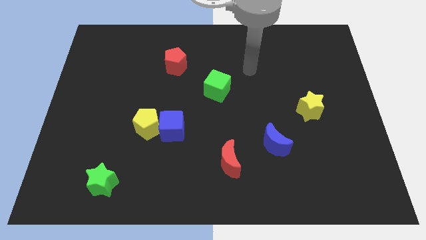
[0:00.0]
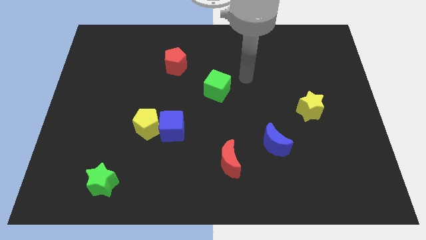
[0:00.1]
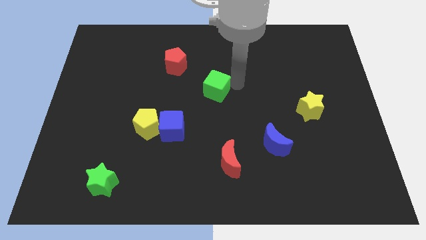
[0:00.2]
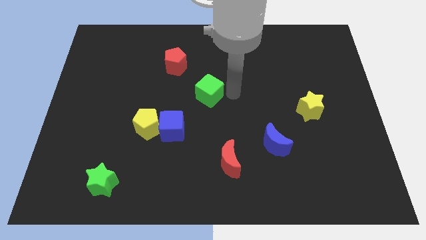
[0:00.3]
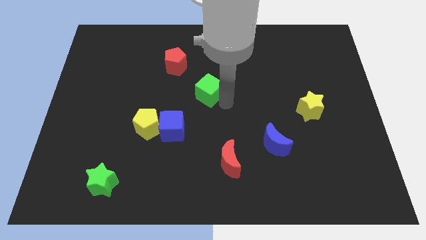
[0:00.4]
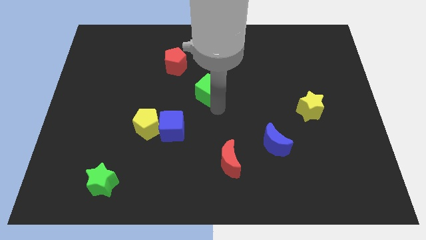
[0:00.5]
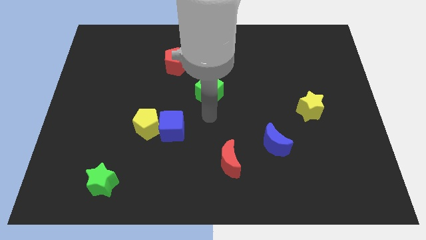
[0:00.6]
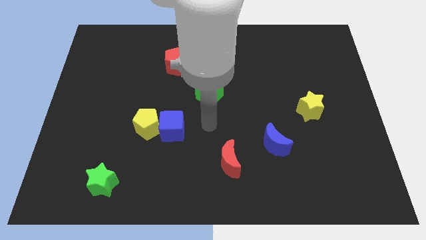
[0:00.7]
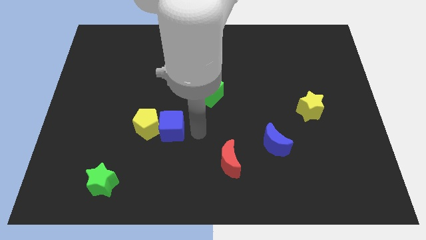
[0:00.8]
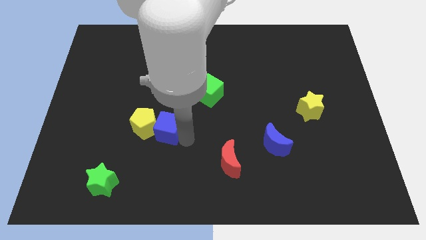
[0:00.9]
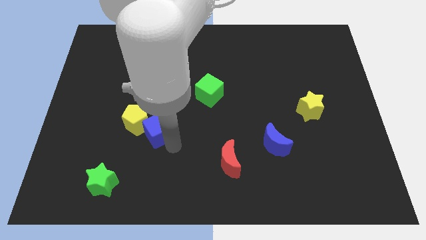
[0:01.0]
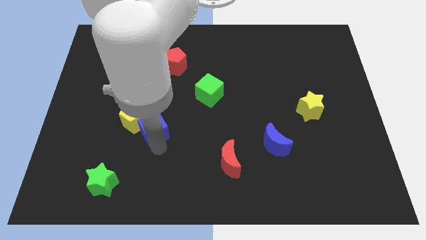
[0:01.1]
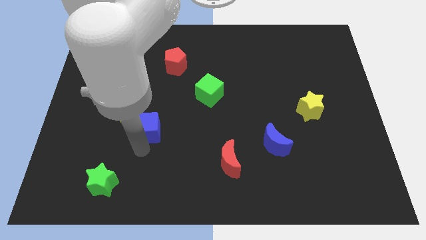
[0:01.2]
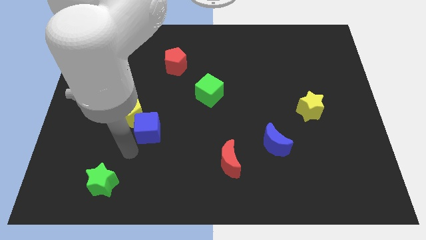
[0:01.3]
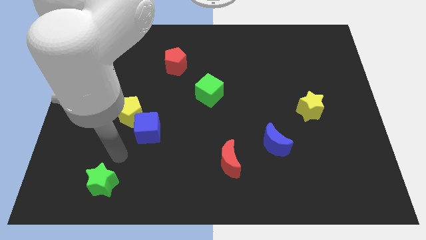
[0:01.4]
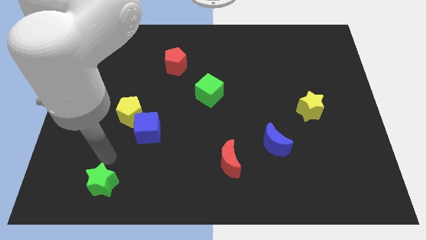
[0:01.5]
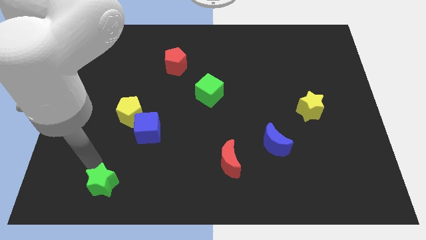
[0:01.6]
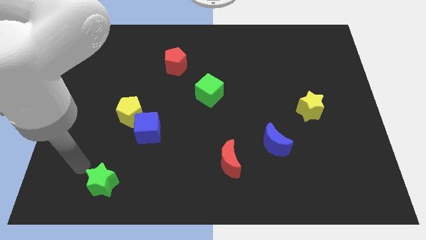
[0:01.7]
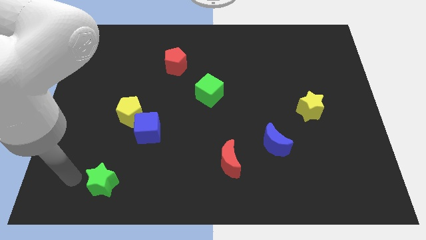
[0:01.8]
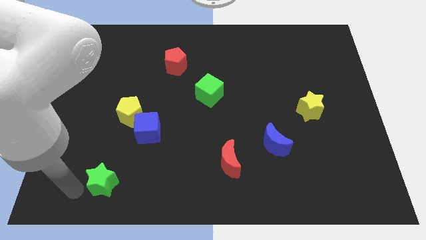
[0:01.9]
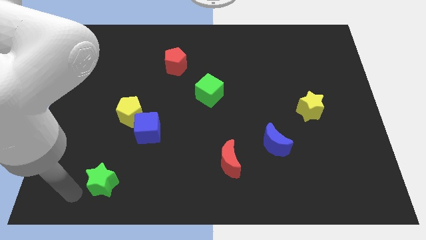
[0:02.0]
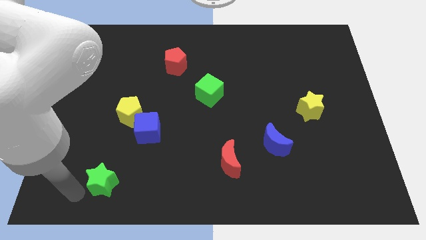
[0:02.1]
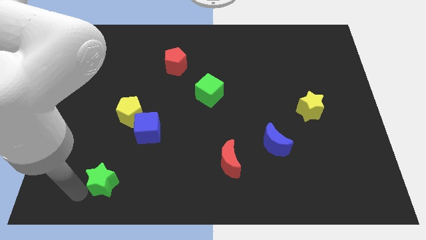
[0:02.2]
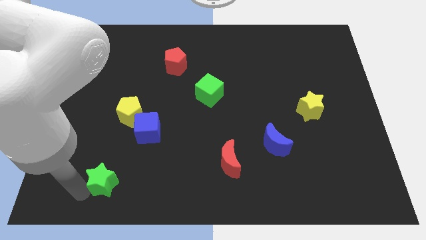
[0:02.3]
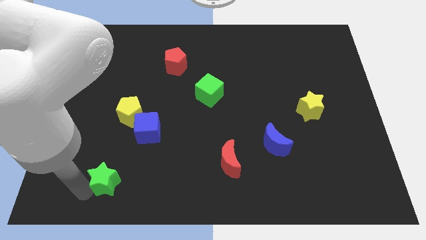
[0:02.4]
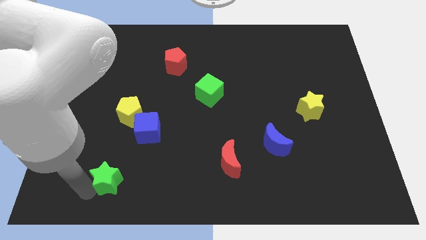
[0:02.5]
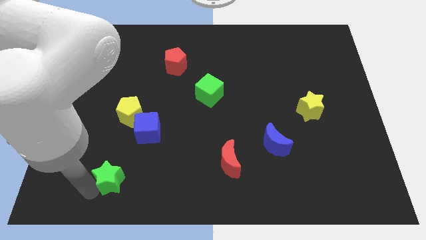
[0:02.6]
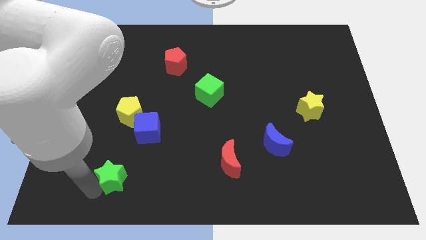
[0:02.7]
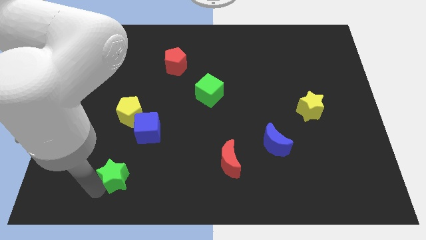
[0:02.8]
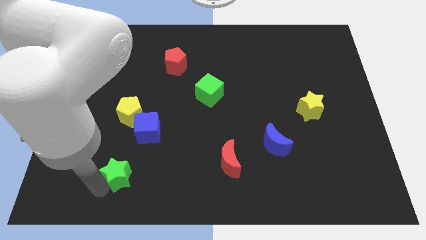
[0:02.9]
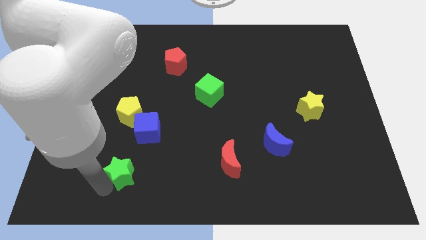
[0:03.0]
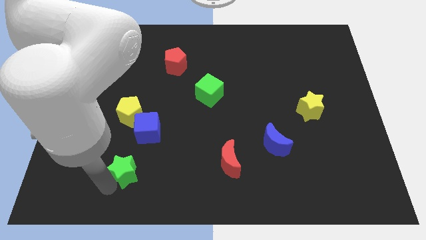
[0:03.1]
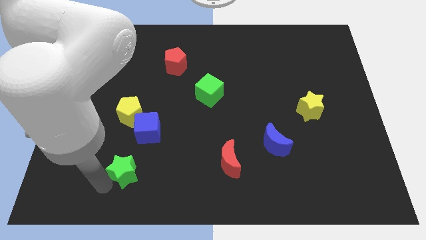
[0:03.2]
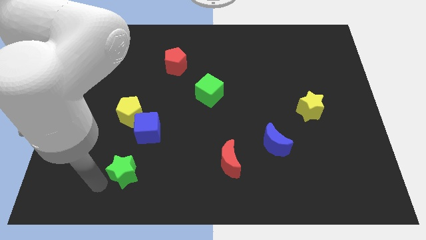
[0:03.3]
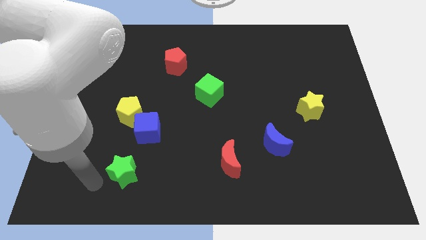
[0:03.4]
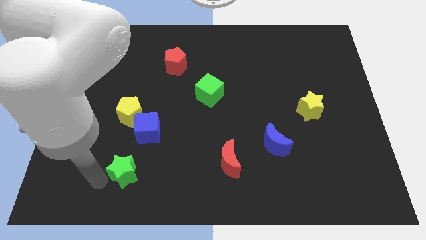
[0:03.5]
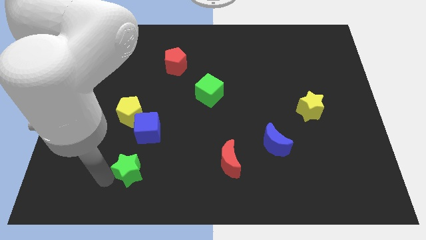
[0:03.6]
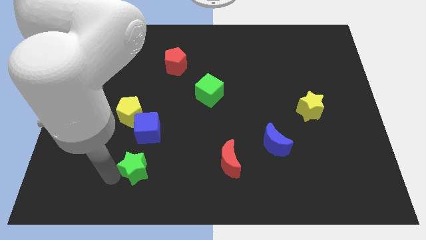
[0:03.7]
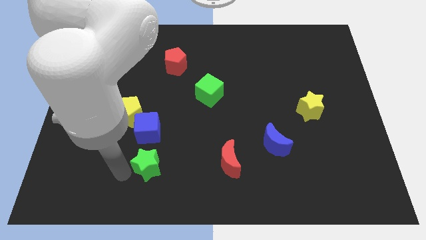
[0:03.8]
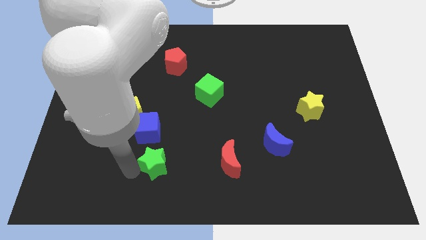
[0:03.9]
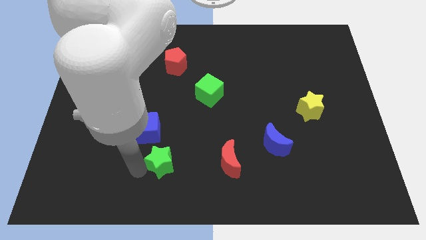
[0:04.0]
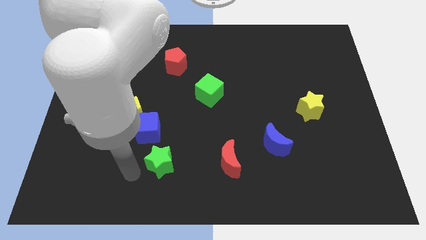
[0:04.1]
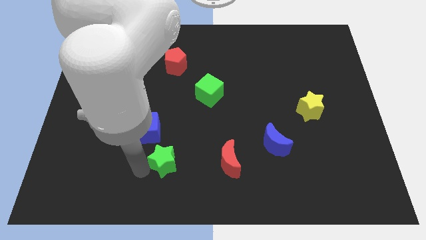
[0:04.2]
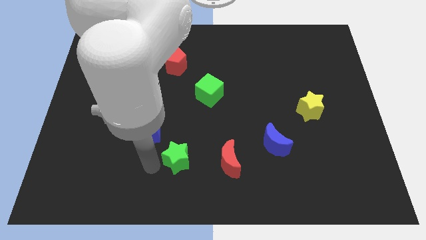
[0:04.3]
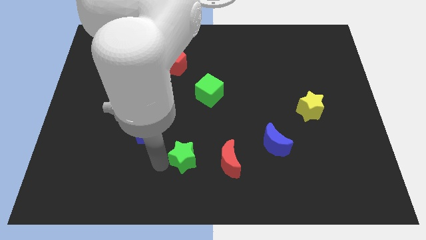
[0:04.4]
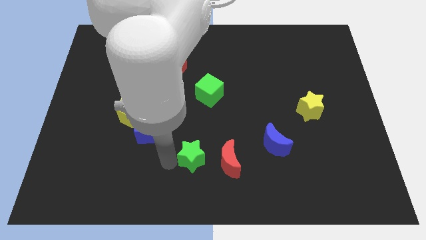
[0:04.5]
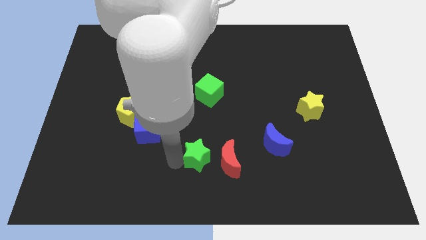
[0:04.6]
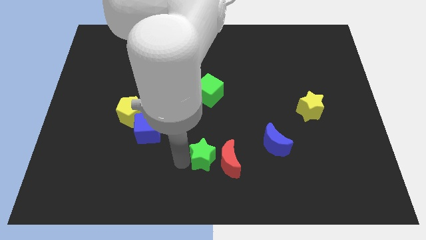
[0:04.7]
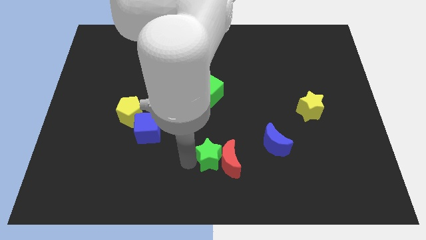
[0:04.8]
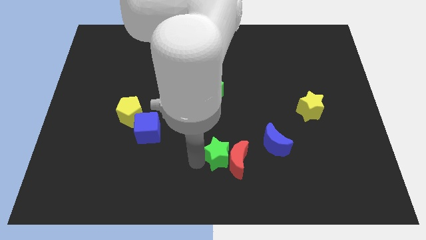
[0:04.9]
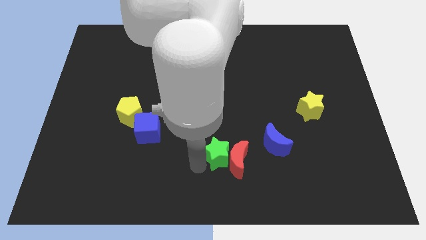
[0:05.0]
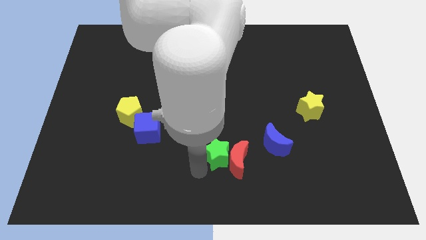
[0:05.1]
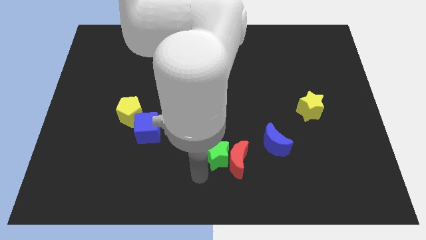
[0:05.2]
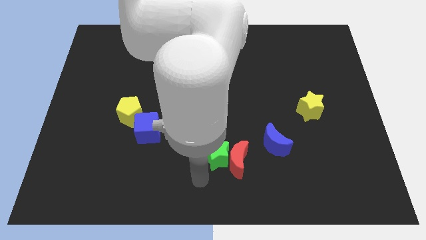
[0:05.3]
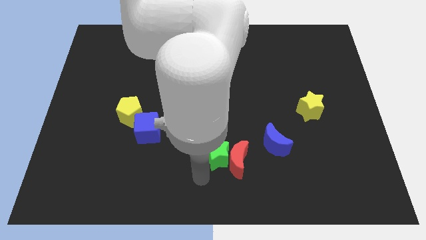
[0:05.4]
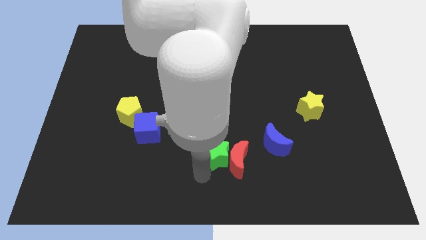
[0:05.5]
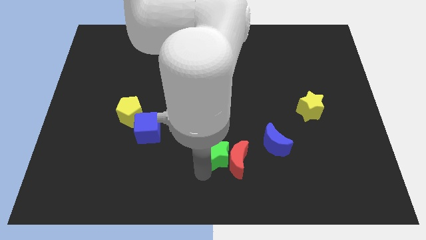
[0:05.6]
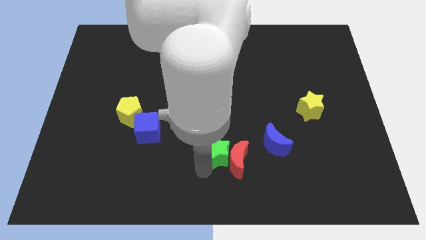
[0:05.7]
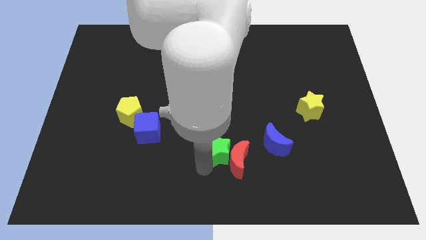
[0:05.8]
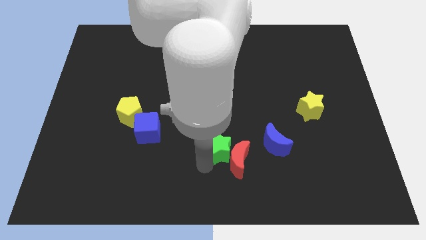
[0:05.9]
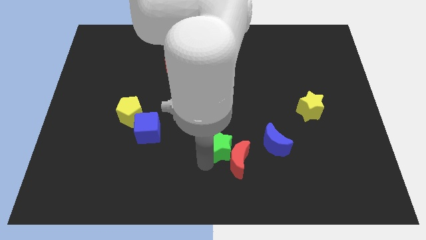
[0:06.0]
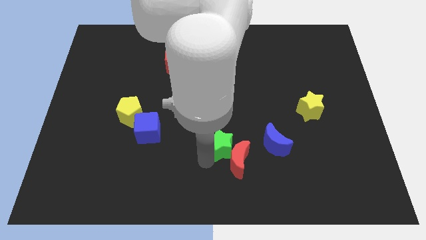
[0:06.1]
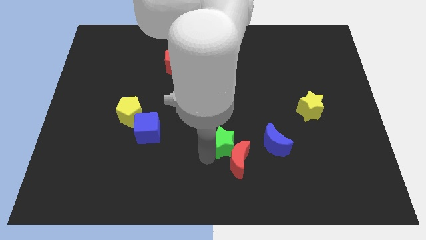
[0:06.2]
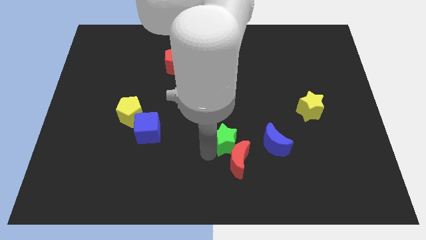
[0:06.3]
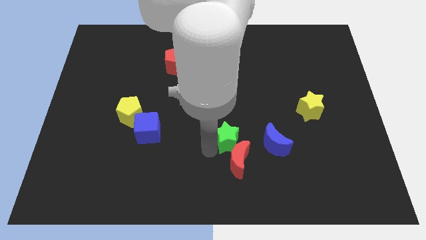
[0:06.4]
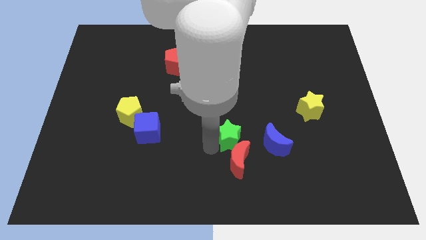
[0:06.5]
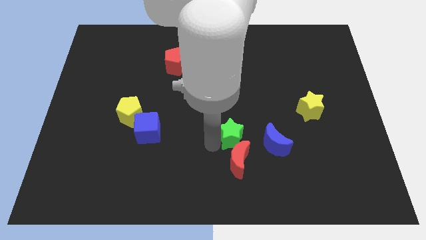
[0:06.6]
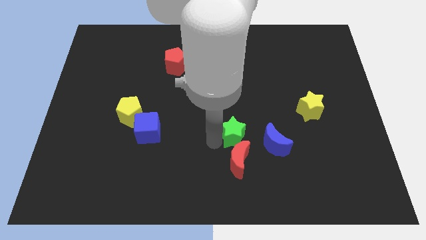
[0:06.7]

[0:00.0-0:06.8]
put the green star diagonally up and to the left of the blue moon

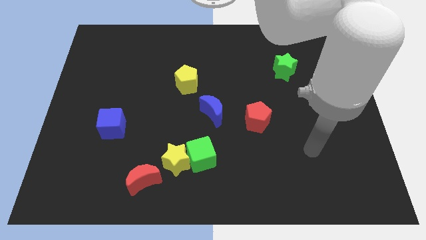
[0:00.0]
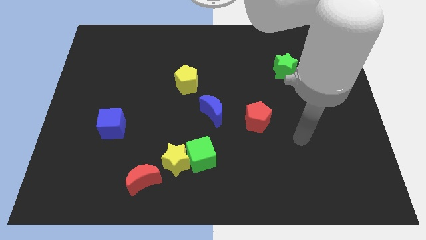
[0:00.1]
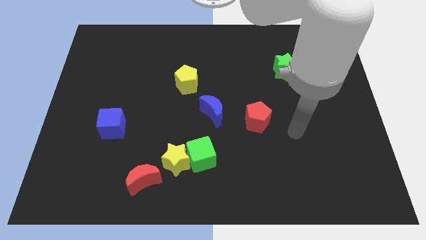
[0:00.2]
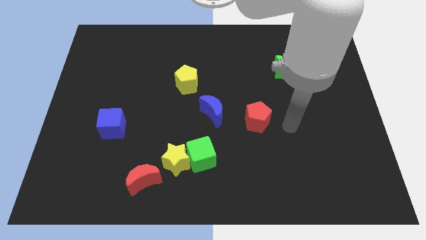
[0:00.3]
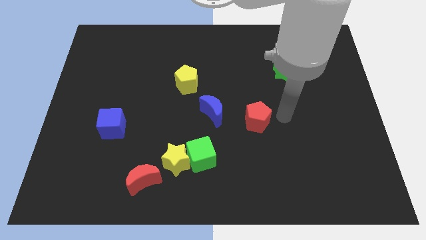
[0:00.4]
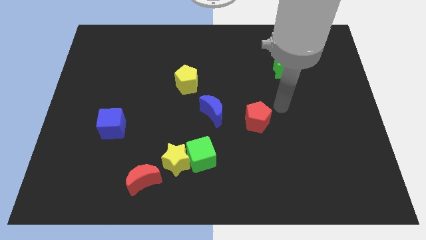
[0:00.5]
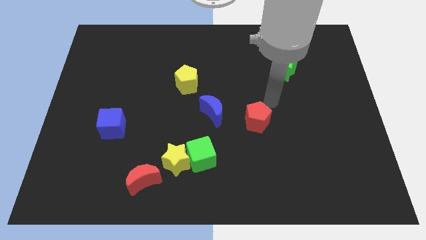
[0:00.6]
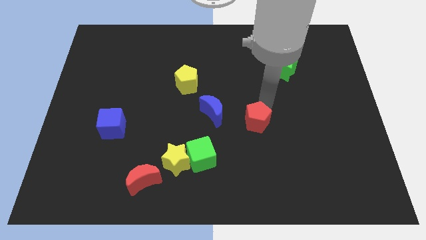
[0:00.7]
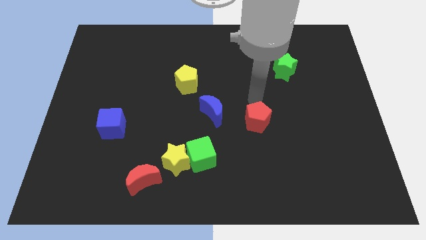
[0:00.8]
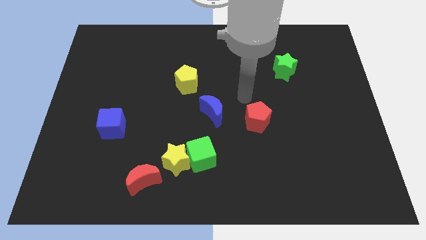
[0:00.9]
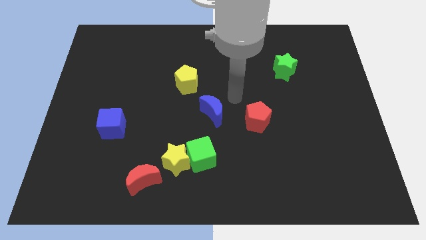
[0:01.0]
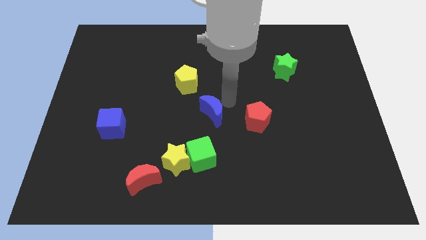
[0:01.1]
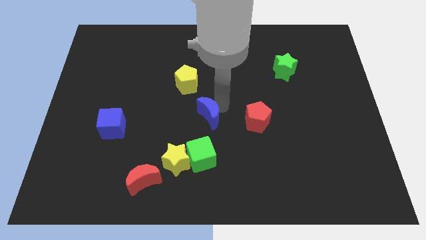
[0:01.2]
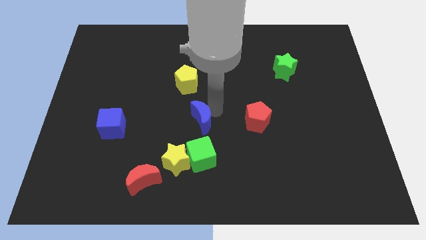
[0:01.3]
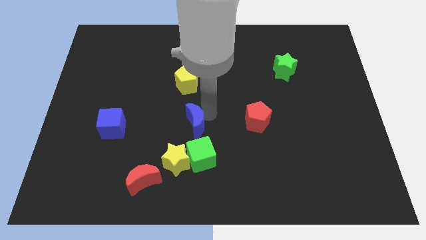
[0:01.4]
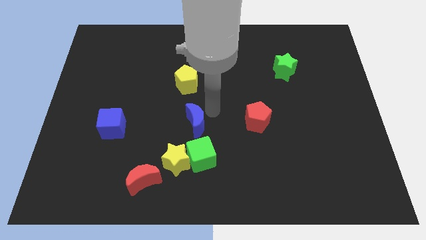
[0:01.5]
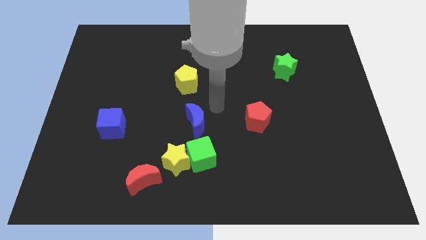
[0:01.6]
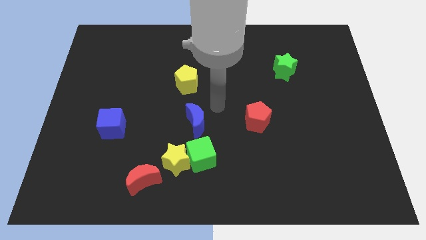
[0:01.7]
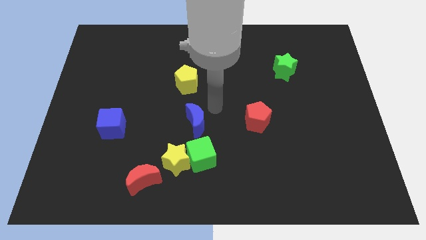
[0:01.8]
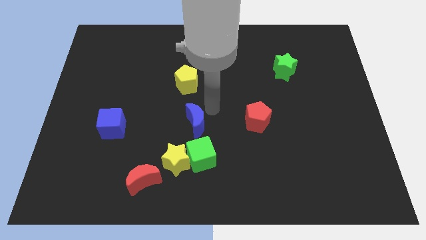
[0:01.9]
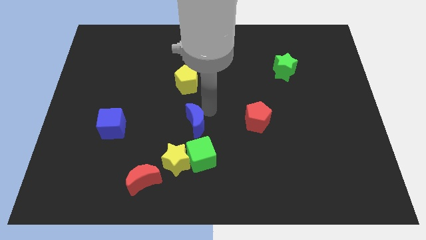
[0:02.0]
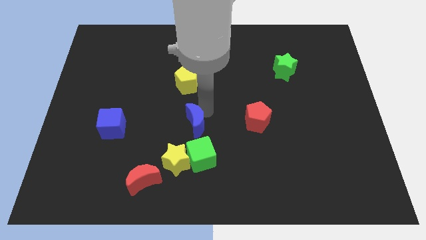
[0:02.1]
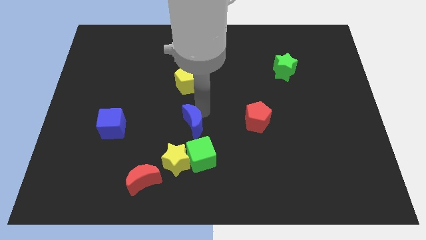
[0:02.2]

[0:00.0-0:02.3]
move the blue moon to the top left of the green cube
